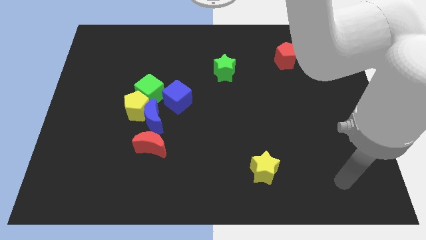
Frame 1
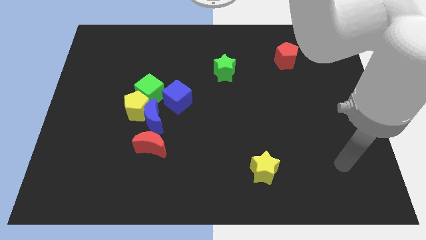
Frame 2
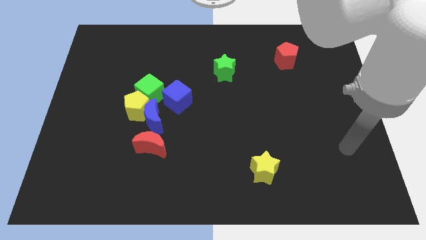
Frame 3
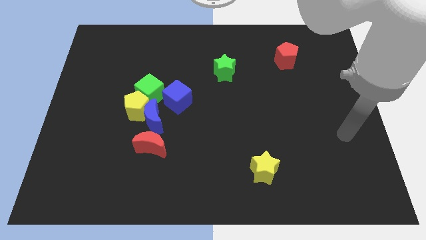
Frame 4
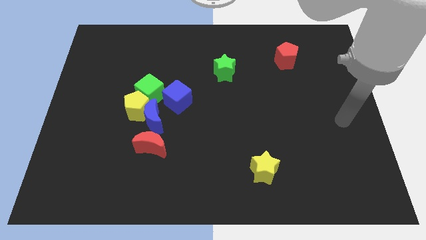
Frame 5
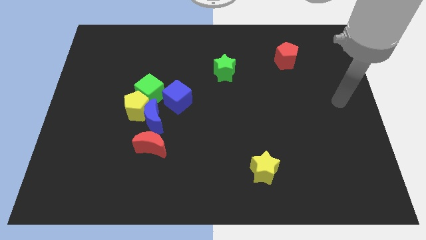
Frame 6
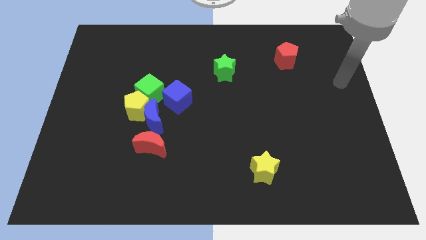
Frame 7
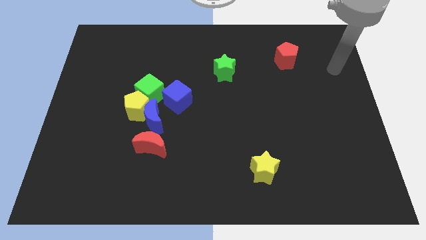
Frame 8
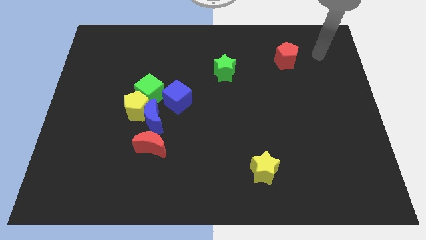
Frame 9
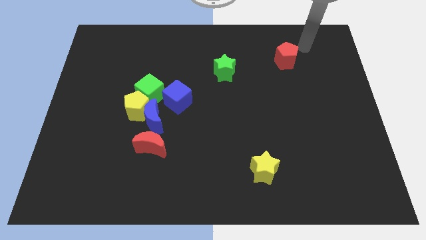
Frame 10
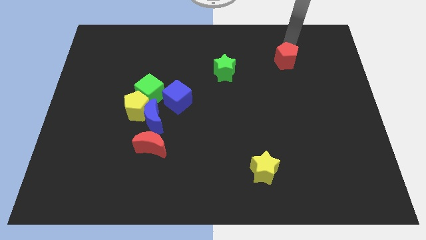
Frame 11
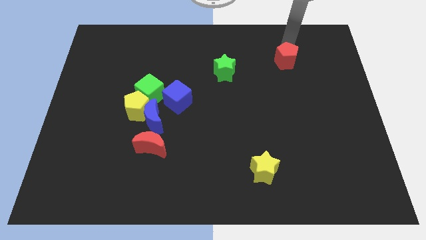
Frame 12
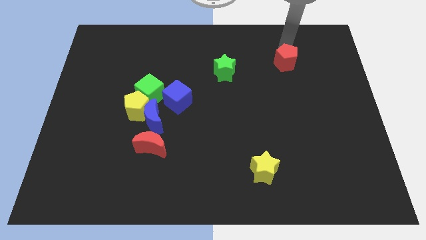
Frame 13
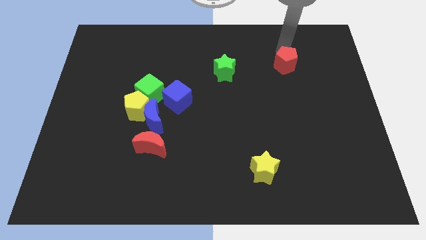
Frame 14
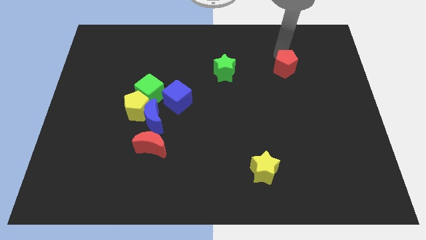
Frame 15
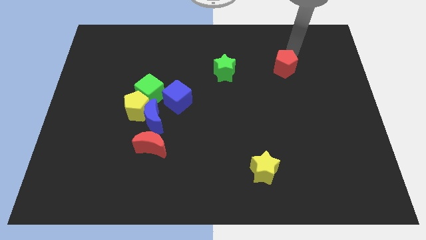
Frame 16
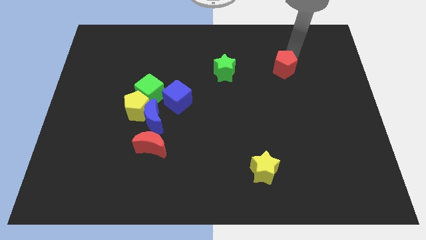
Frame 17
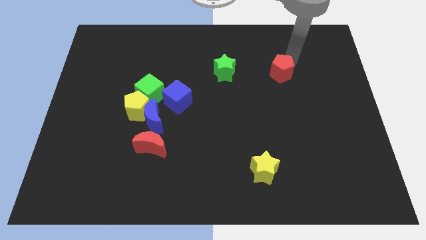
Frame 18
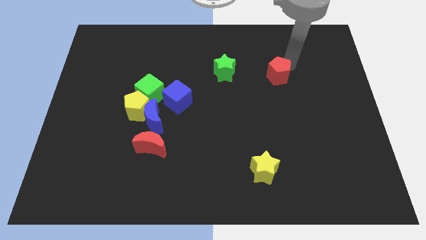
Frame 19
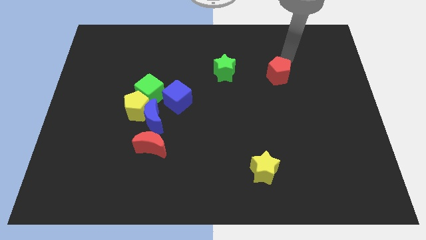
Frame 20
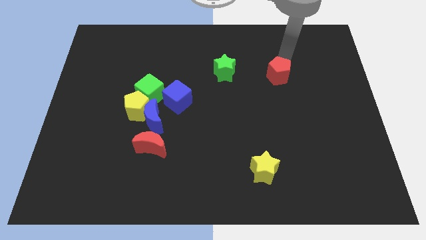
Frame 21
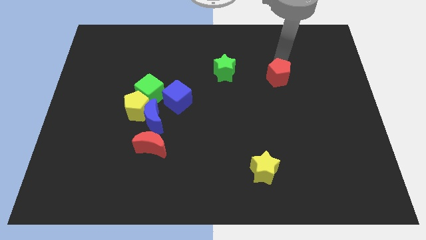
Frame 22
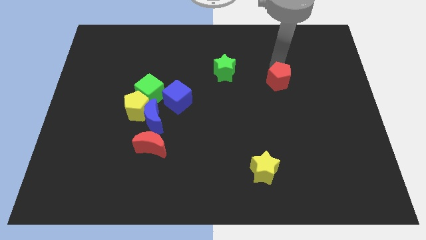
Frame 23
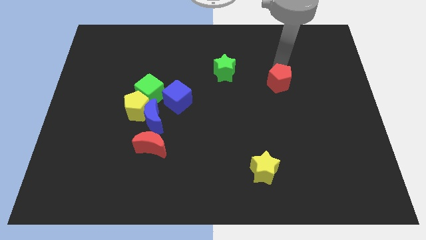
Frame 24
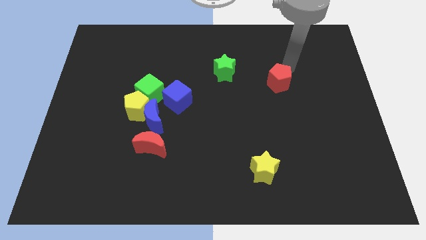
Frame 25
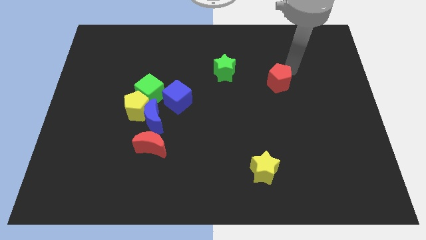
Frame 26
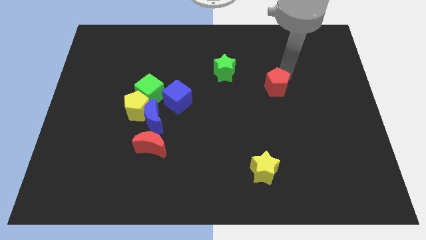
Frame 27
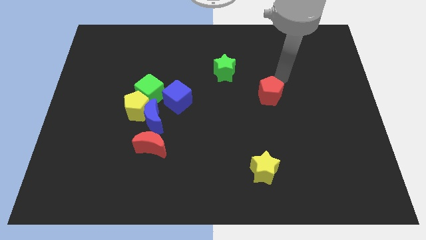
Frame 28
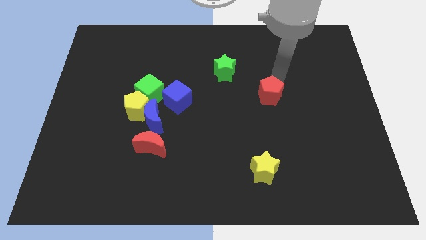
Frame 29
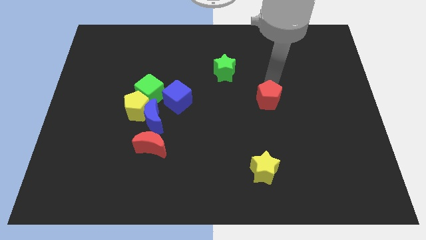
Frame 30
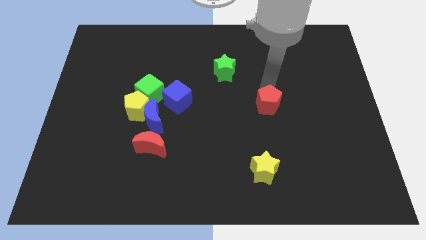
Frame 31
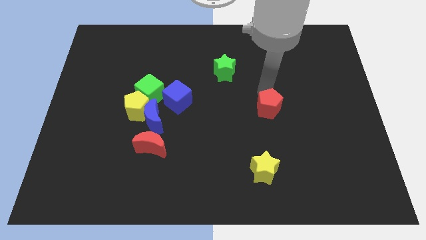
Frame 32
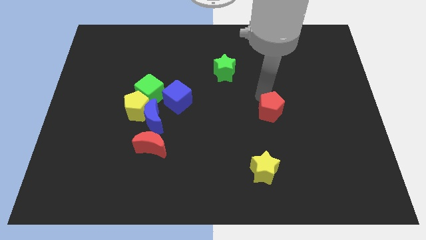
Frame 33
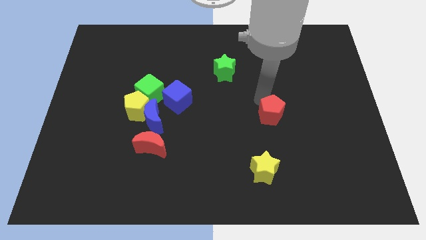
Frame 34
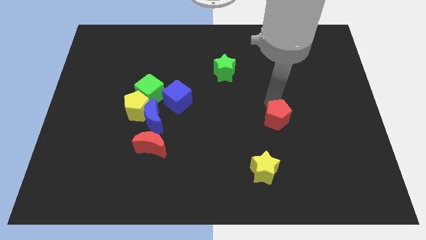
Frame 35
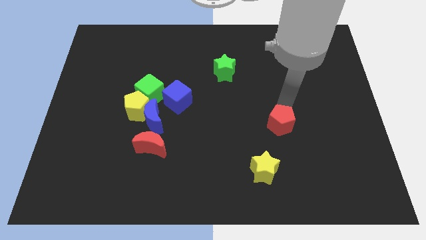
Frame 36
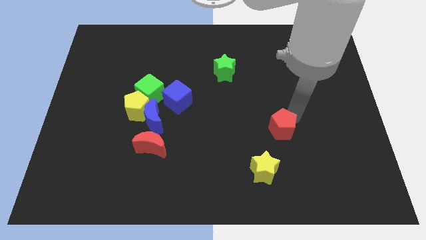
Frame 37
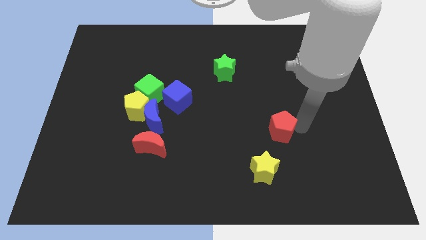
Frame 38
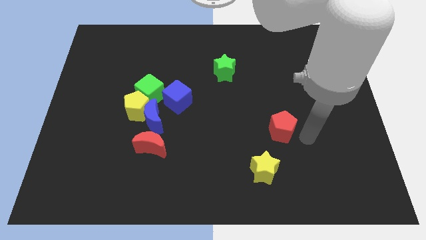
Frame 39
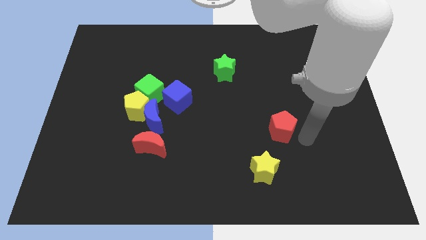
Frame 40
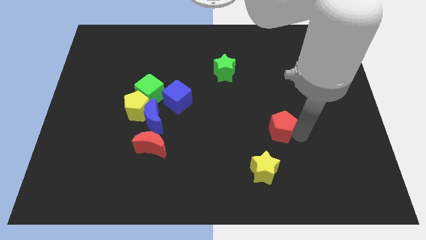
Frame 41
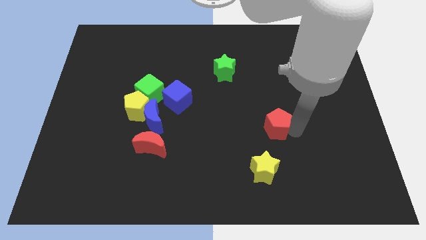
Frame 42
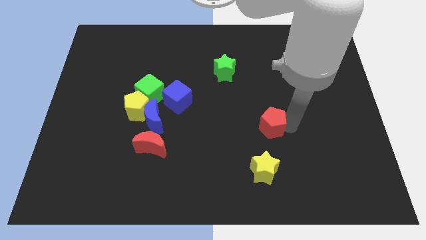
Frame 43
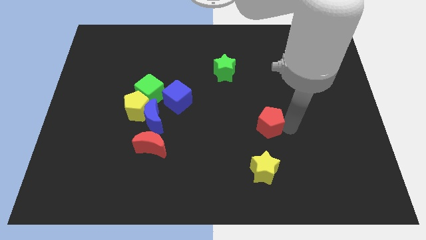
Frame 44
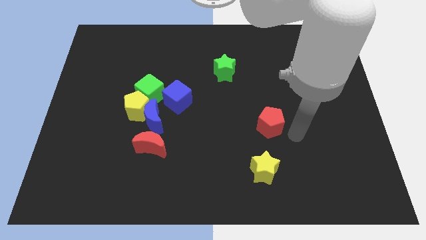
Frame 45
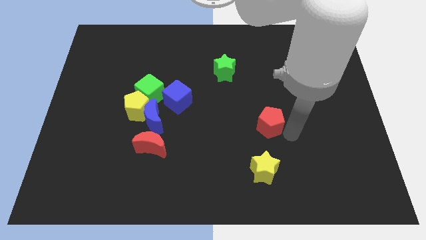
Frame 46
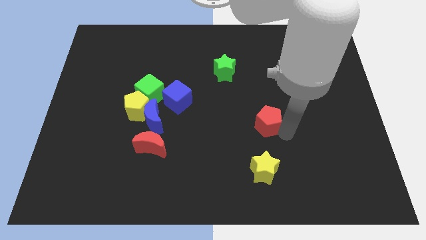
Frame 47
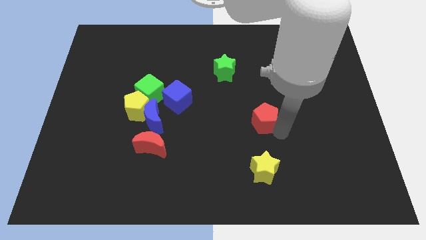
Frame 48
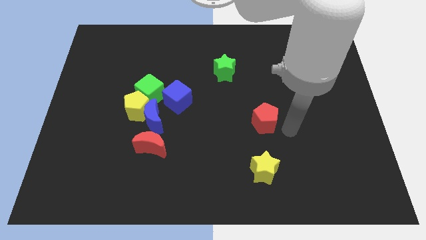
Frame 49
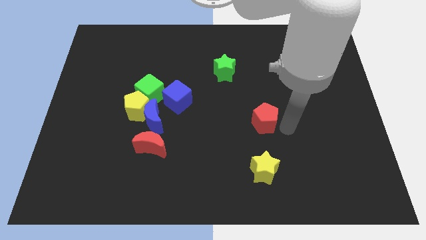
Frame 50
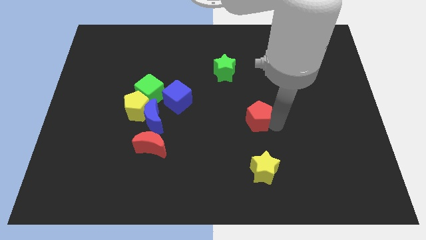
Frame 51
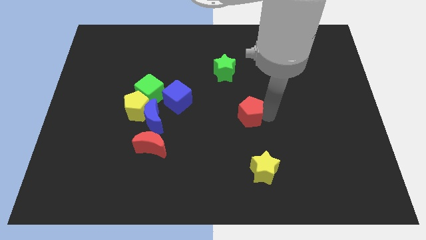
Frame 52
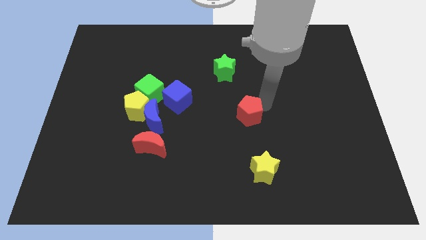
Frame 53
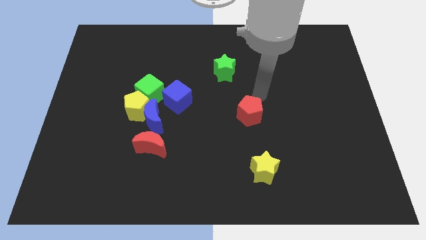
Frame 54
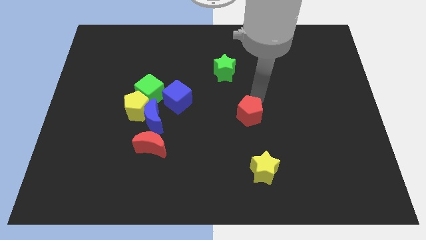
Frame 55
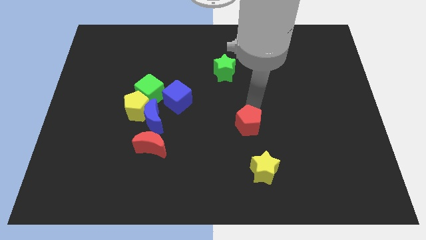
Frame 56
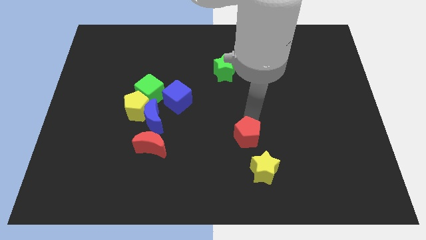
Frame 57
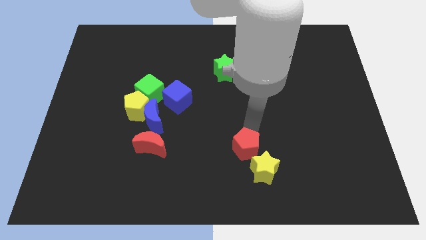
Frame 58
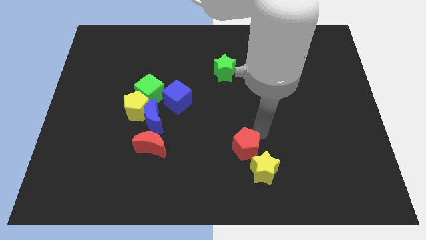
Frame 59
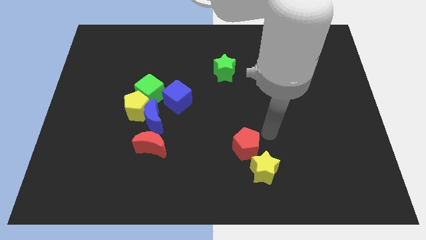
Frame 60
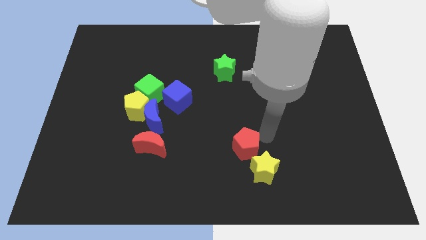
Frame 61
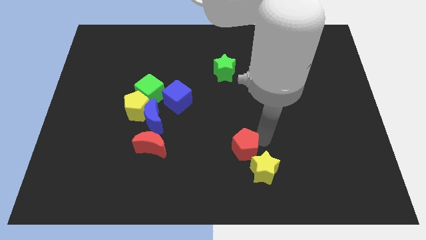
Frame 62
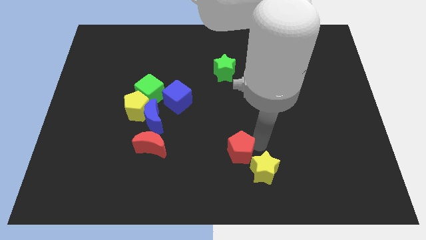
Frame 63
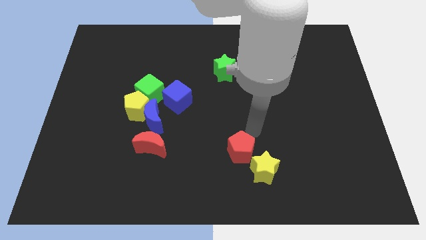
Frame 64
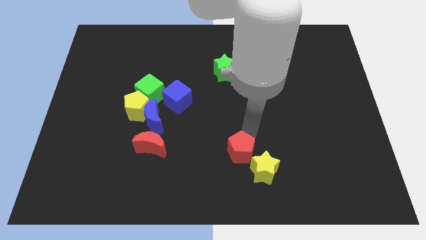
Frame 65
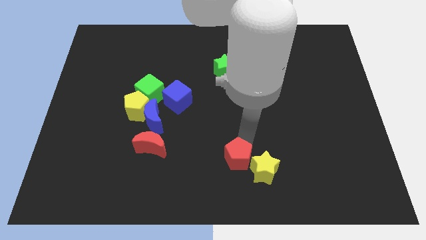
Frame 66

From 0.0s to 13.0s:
put the red pentagon to the bottom
